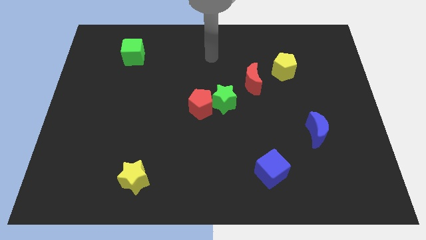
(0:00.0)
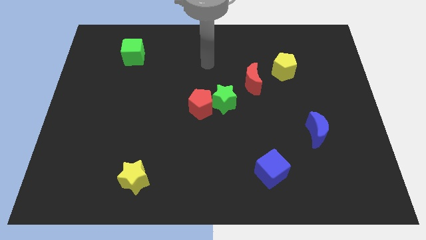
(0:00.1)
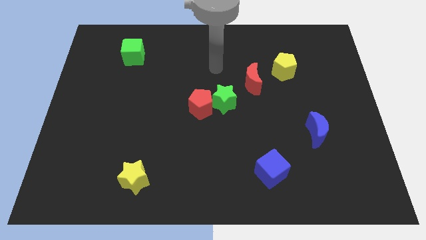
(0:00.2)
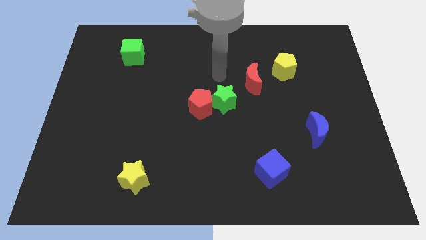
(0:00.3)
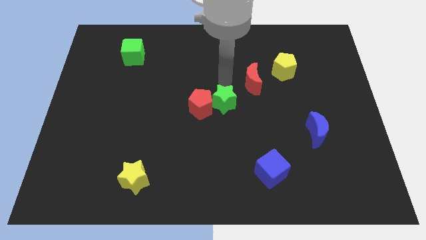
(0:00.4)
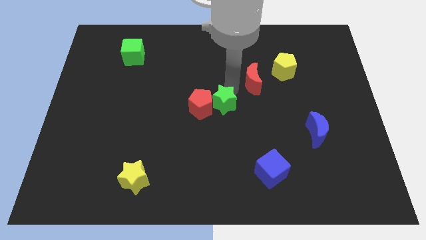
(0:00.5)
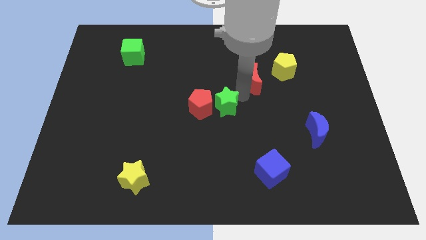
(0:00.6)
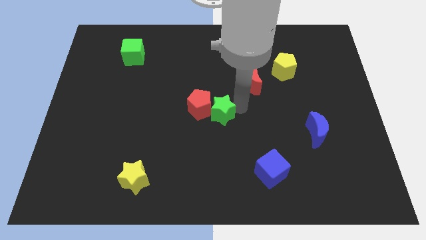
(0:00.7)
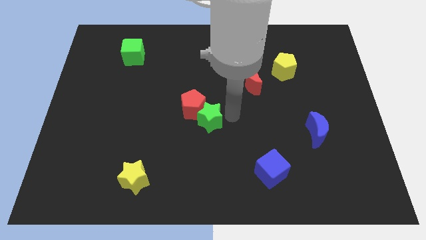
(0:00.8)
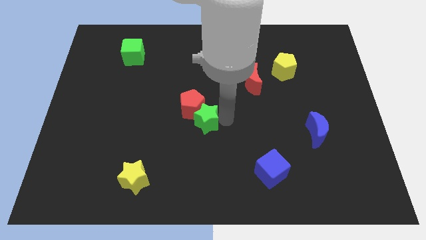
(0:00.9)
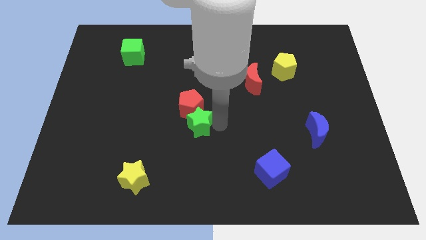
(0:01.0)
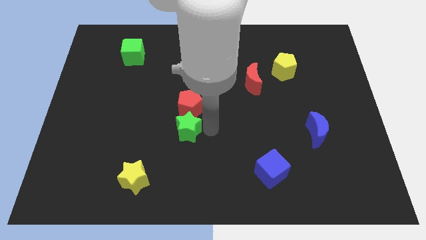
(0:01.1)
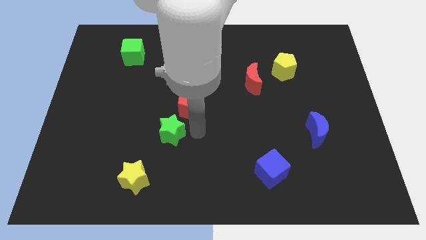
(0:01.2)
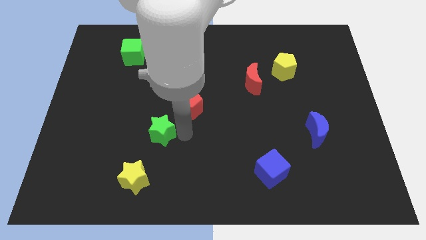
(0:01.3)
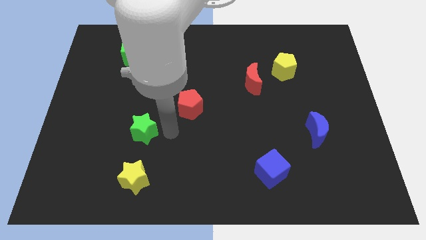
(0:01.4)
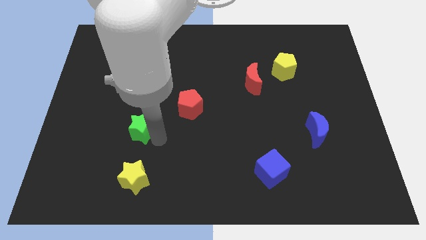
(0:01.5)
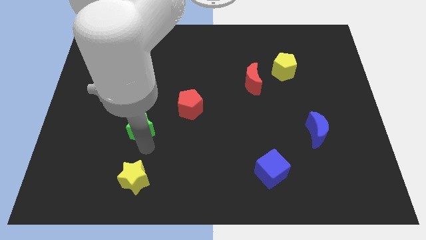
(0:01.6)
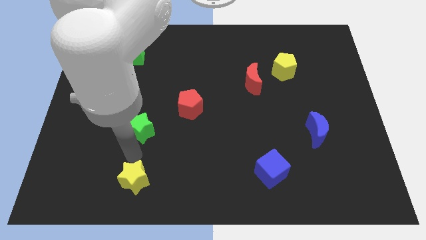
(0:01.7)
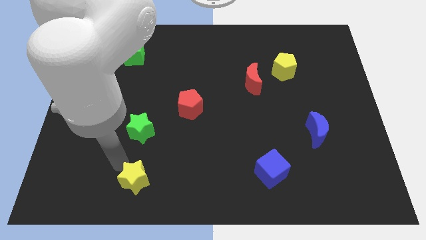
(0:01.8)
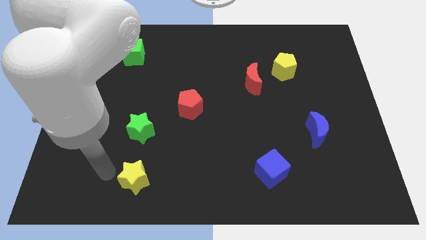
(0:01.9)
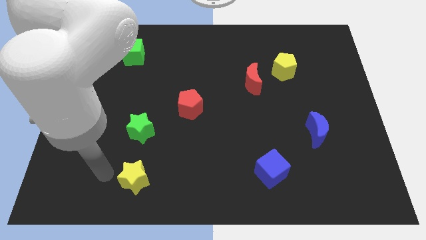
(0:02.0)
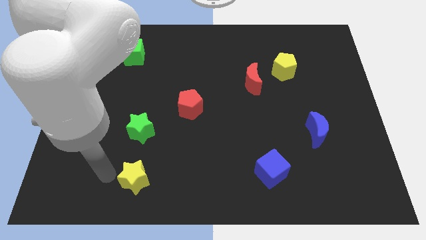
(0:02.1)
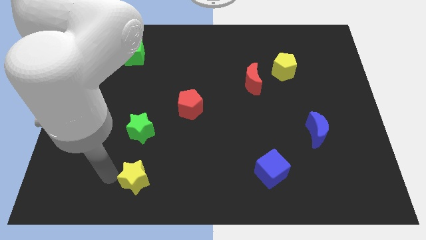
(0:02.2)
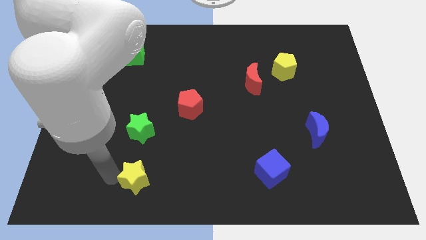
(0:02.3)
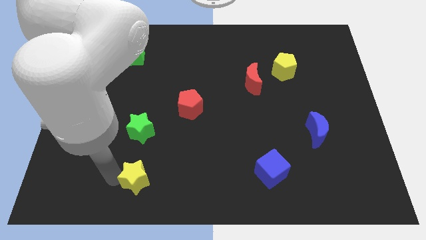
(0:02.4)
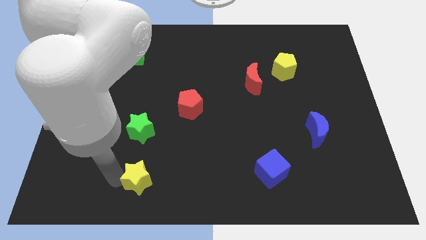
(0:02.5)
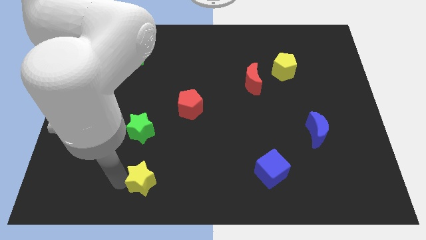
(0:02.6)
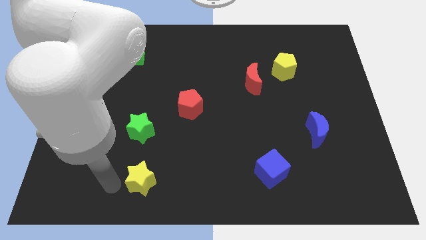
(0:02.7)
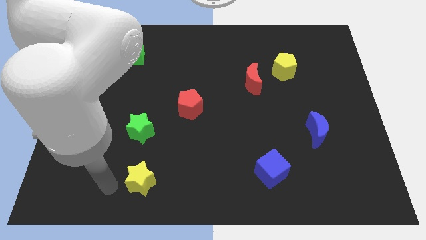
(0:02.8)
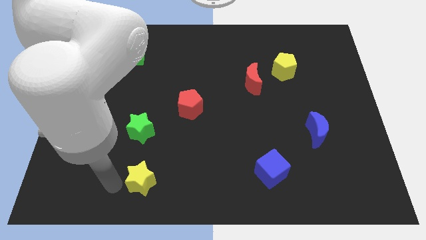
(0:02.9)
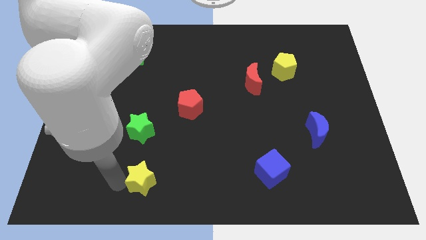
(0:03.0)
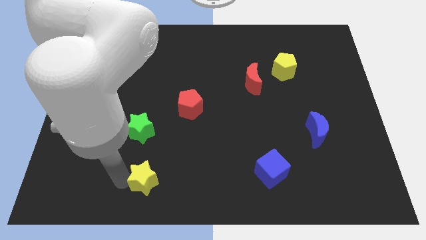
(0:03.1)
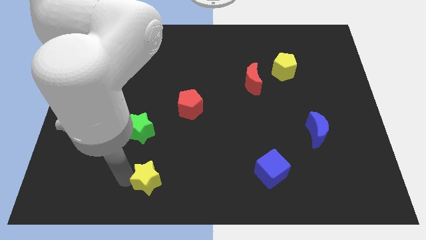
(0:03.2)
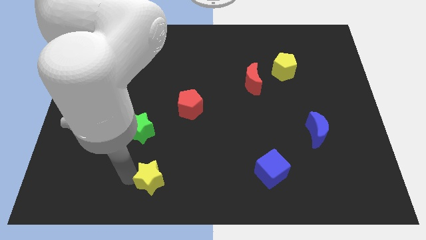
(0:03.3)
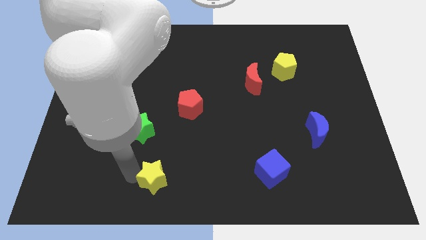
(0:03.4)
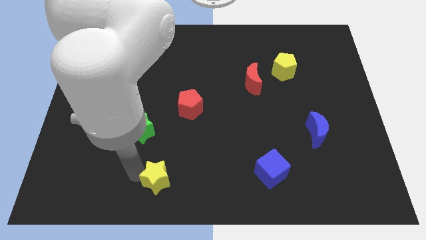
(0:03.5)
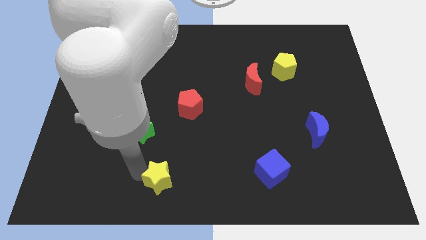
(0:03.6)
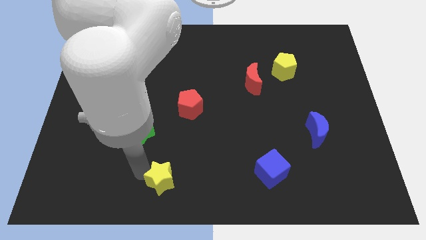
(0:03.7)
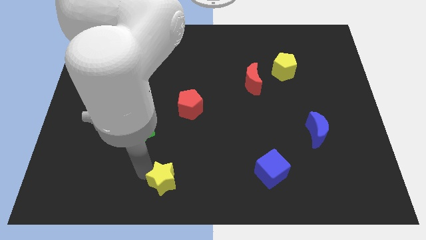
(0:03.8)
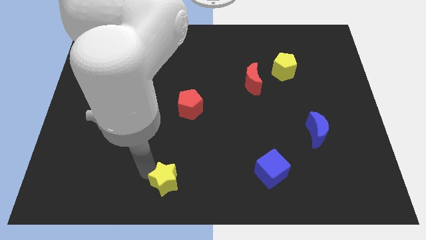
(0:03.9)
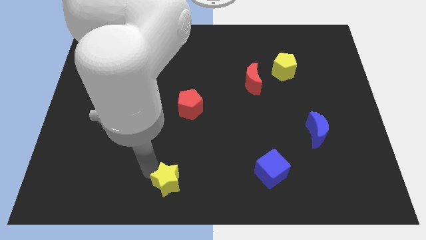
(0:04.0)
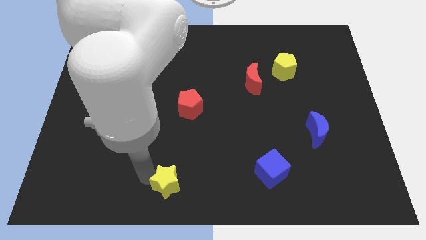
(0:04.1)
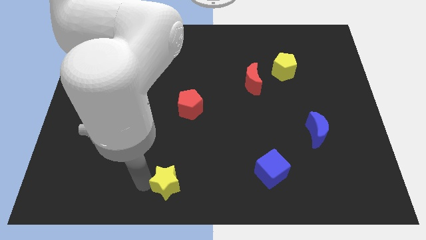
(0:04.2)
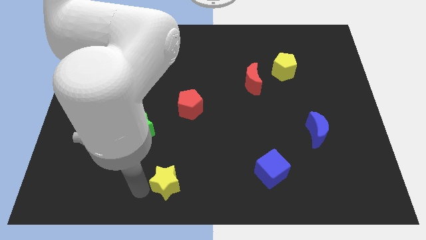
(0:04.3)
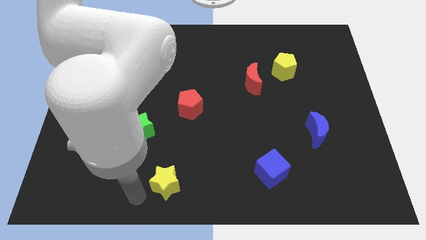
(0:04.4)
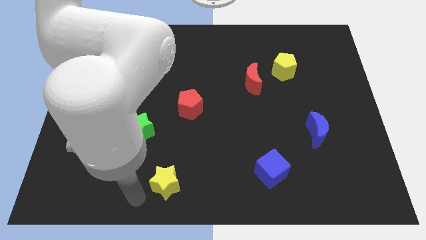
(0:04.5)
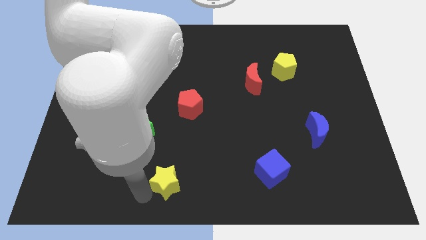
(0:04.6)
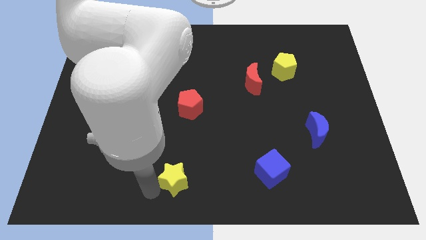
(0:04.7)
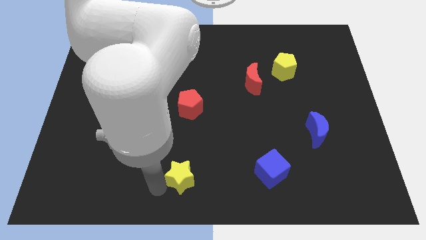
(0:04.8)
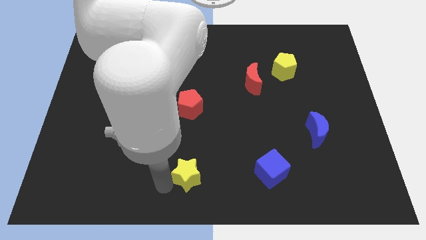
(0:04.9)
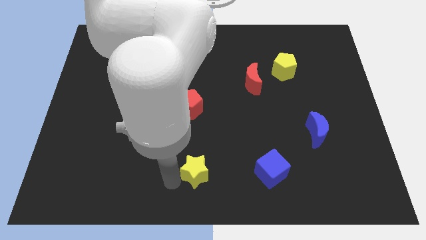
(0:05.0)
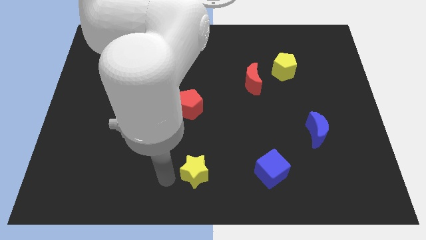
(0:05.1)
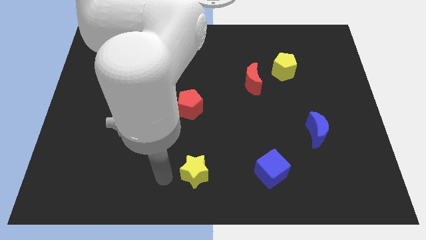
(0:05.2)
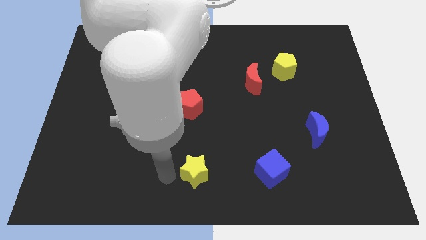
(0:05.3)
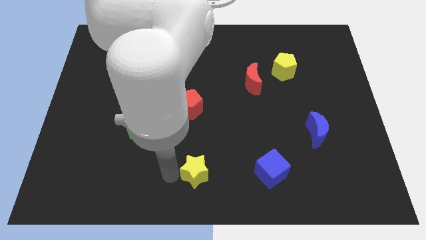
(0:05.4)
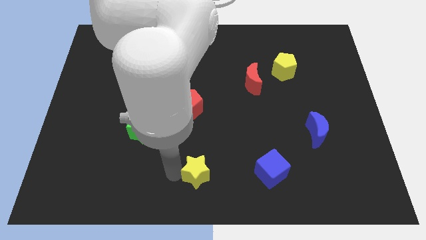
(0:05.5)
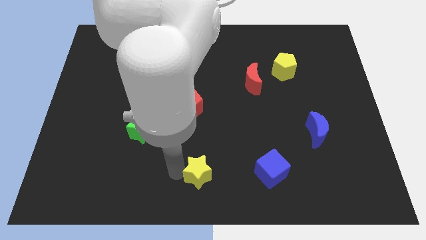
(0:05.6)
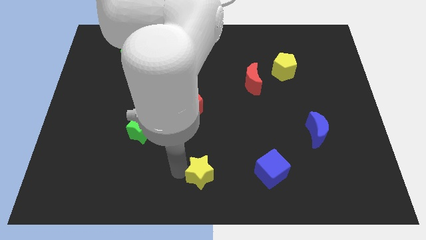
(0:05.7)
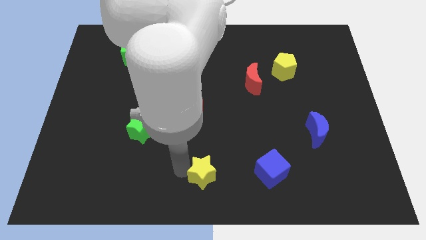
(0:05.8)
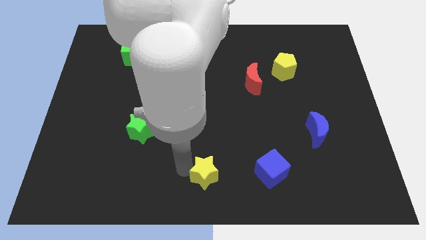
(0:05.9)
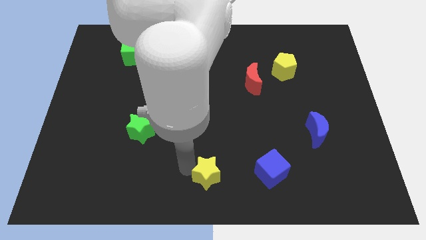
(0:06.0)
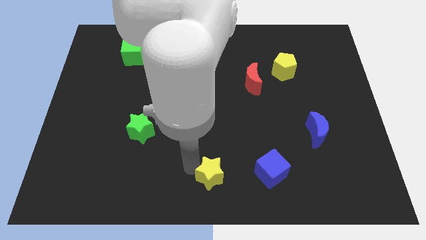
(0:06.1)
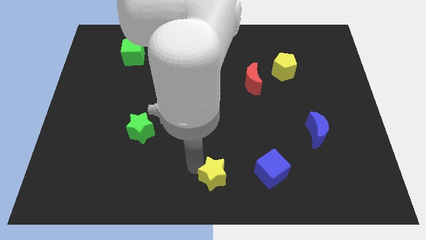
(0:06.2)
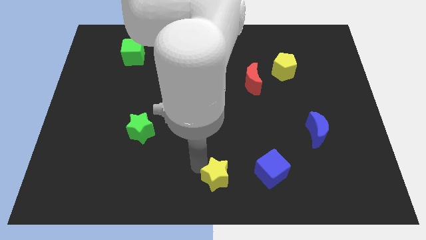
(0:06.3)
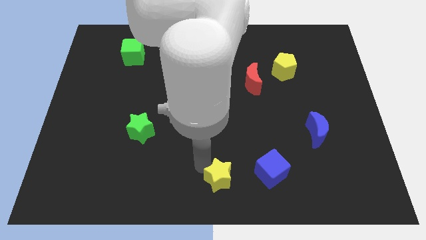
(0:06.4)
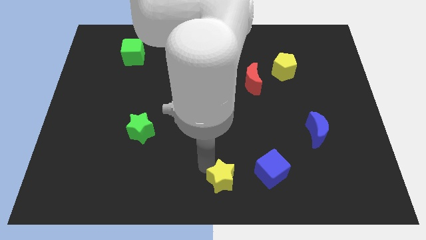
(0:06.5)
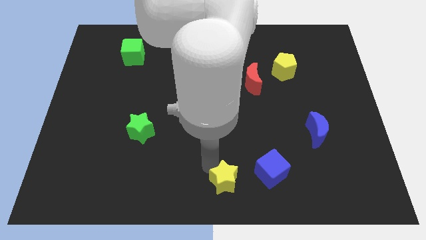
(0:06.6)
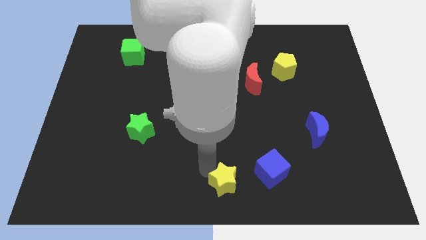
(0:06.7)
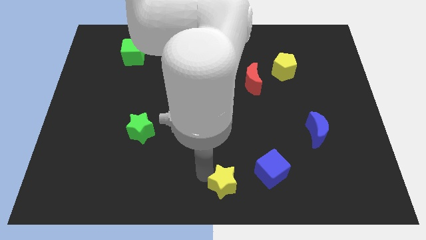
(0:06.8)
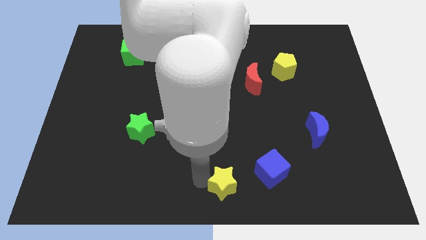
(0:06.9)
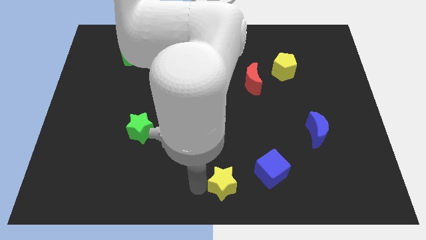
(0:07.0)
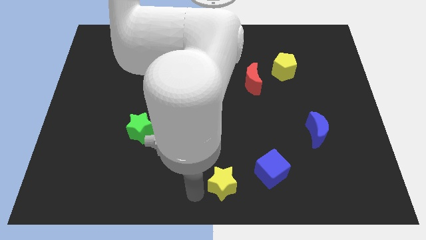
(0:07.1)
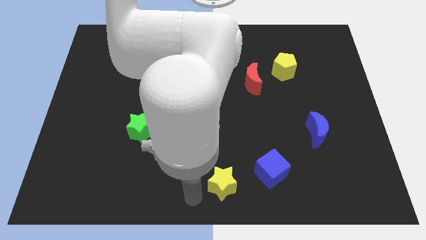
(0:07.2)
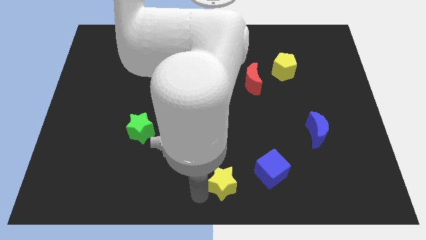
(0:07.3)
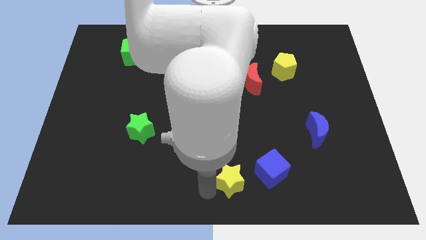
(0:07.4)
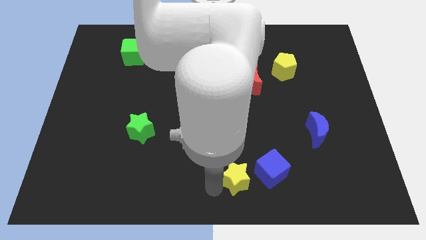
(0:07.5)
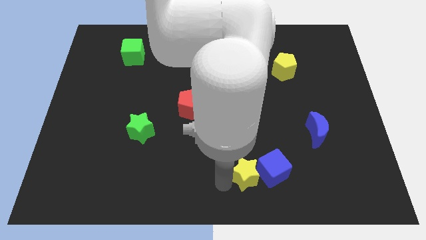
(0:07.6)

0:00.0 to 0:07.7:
slide the yellow star to the blue cube

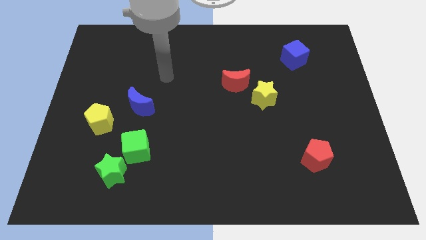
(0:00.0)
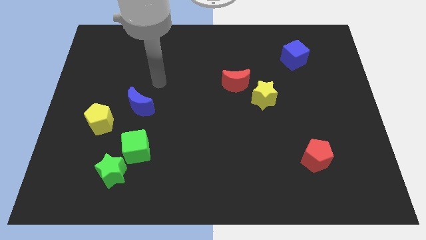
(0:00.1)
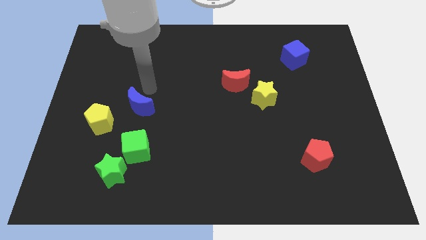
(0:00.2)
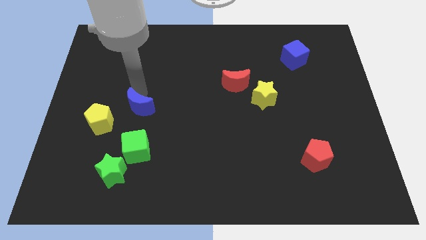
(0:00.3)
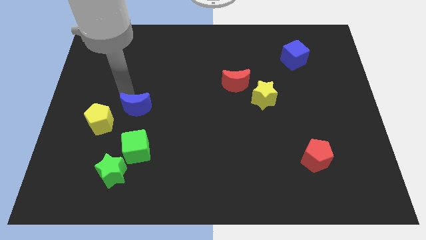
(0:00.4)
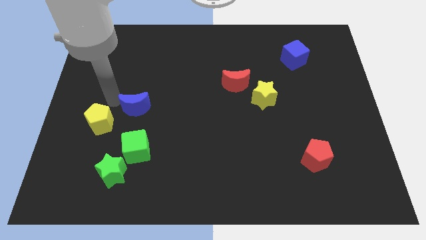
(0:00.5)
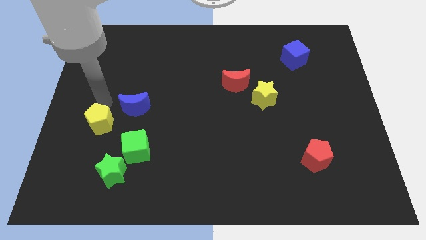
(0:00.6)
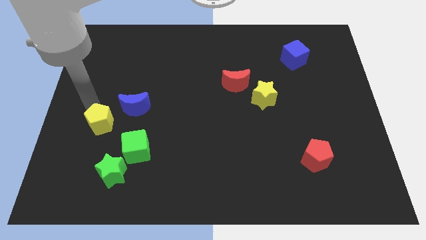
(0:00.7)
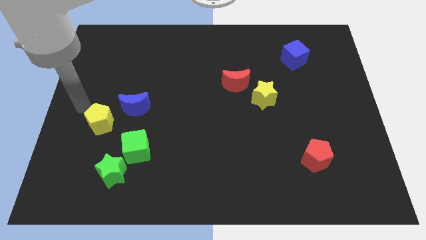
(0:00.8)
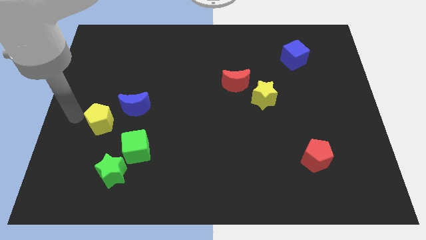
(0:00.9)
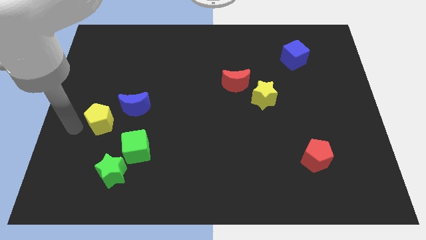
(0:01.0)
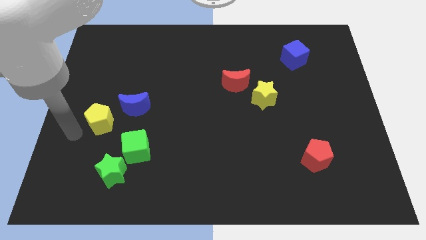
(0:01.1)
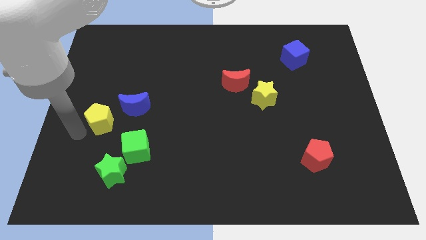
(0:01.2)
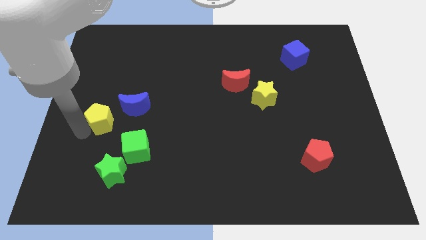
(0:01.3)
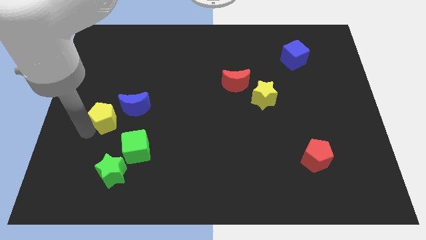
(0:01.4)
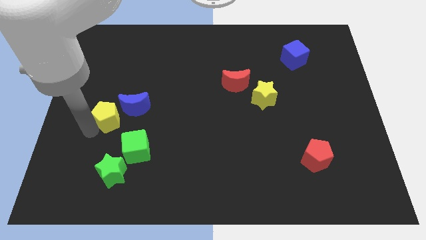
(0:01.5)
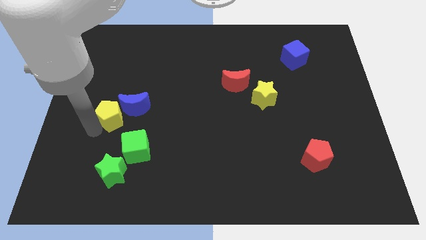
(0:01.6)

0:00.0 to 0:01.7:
move the yellow pentagon towards the blue moon
